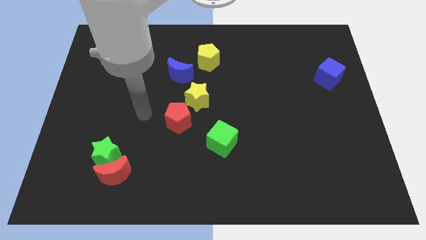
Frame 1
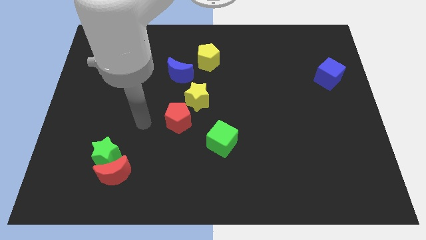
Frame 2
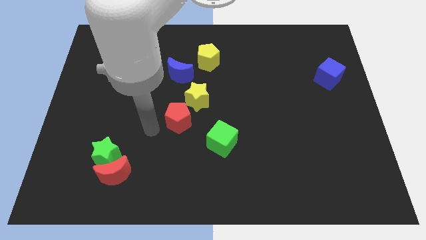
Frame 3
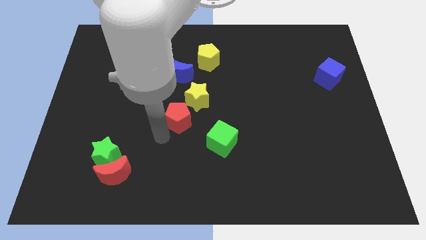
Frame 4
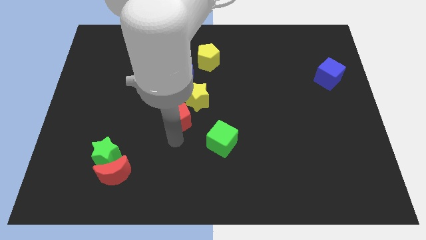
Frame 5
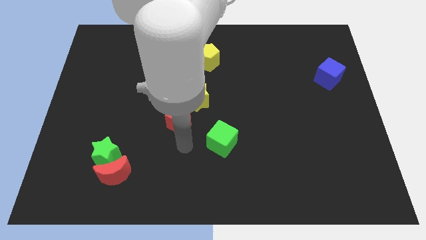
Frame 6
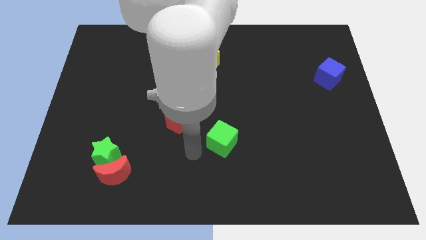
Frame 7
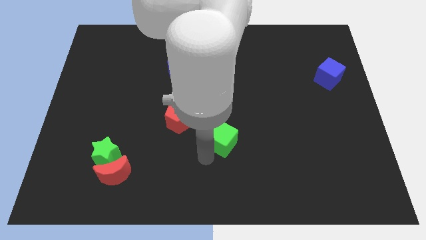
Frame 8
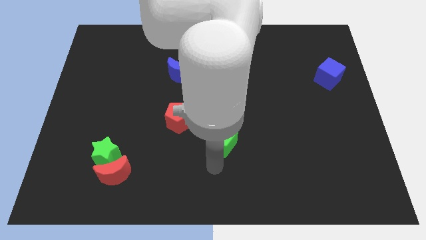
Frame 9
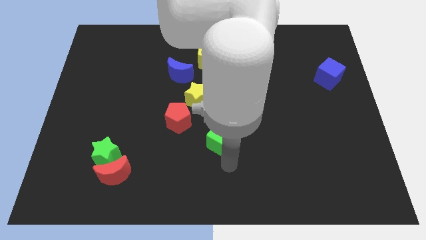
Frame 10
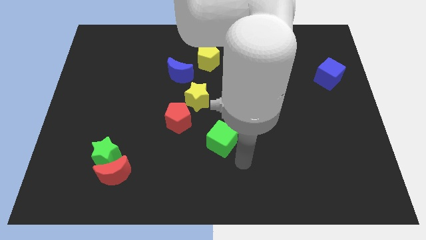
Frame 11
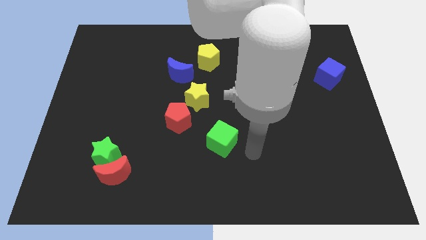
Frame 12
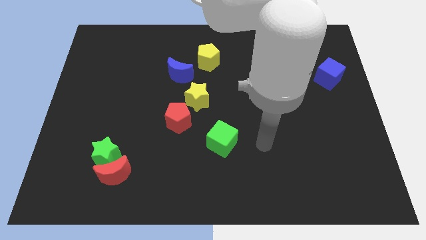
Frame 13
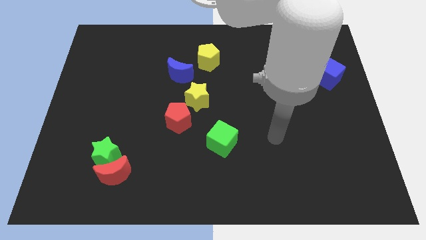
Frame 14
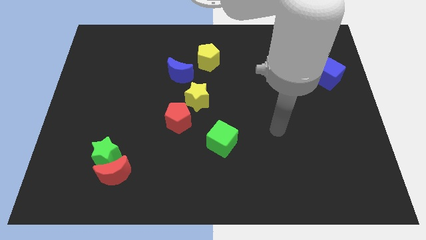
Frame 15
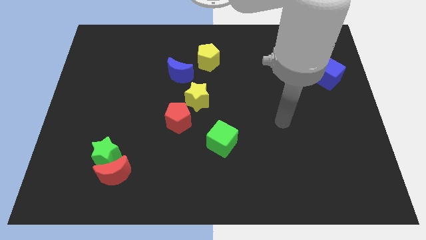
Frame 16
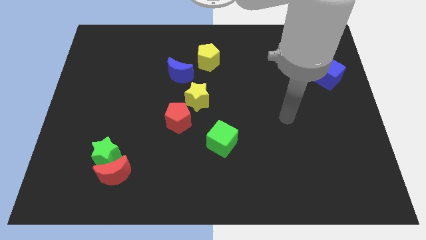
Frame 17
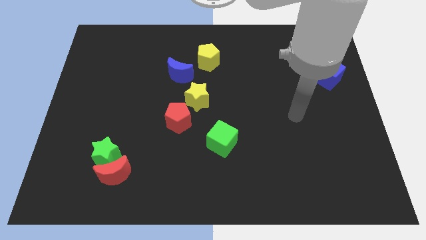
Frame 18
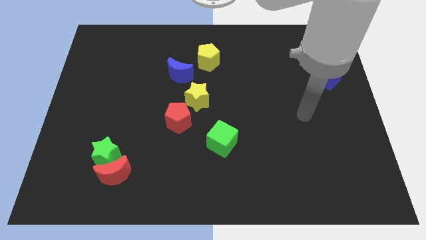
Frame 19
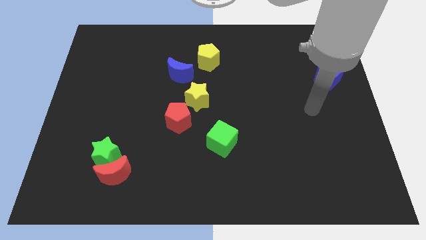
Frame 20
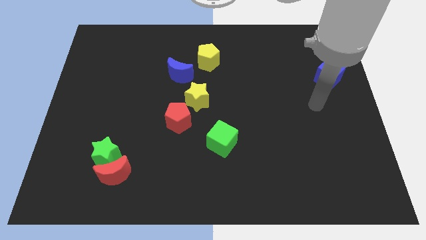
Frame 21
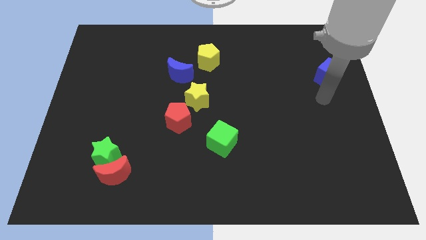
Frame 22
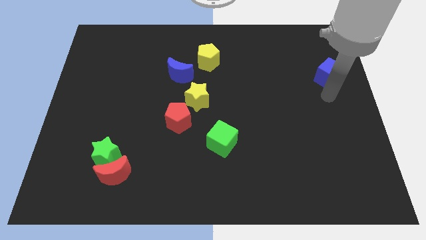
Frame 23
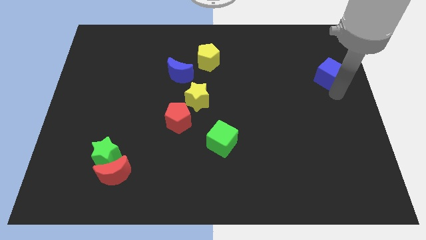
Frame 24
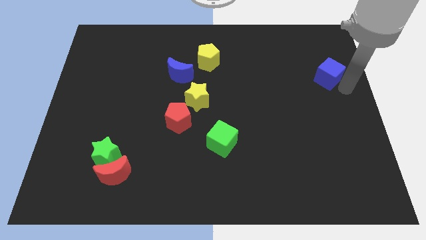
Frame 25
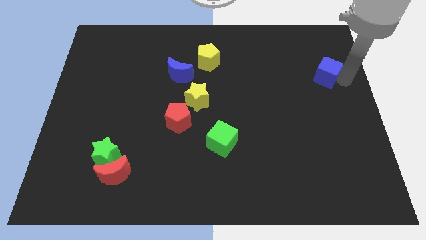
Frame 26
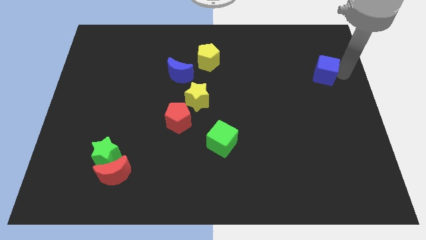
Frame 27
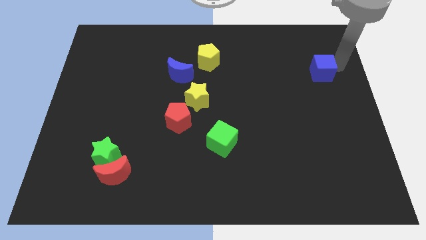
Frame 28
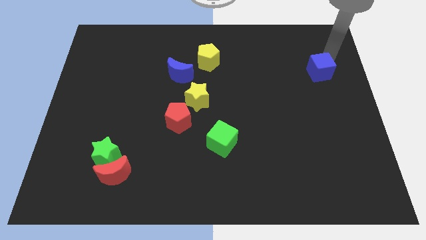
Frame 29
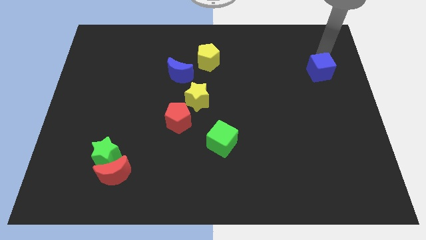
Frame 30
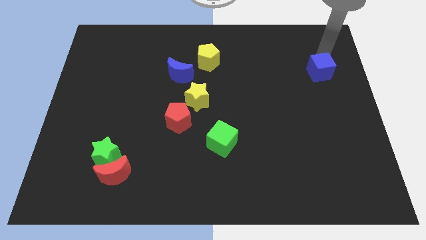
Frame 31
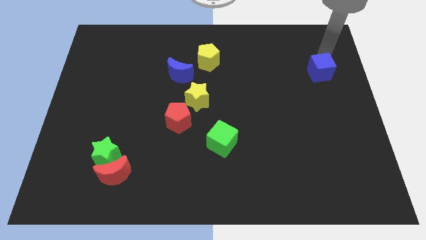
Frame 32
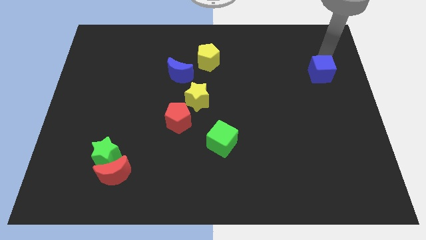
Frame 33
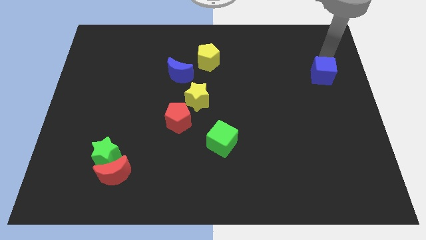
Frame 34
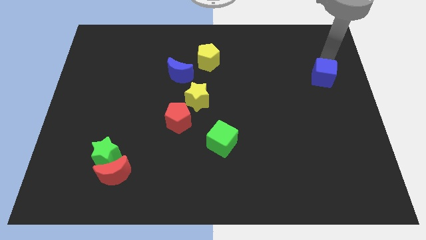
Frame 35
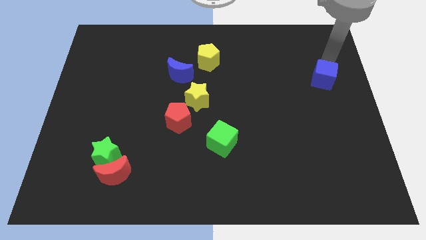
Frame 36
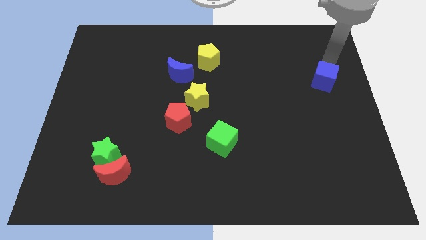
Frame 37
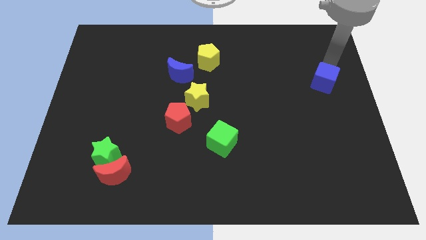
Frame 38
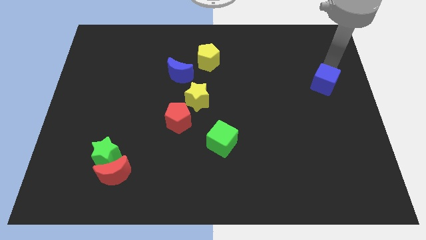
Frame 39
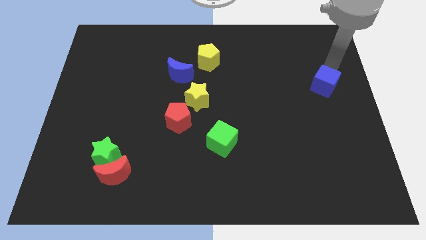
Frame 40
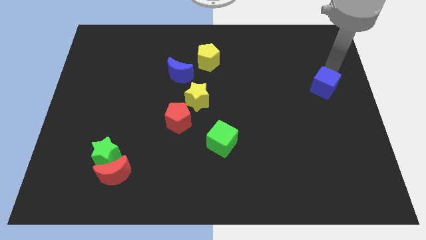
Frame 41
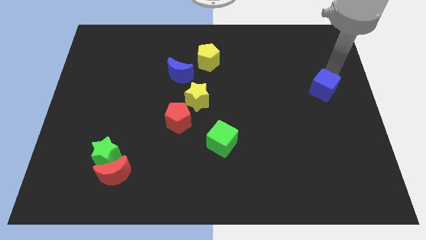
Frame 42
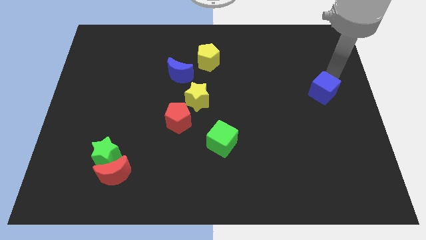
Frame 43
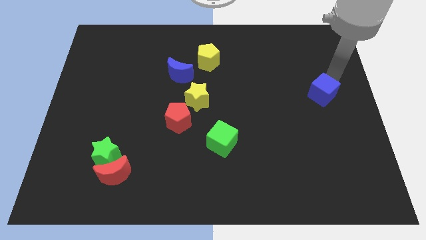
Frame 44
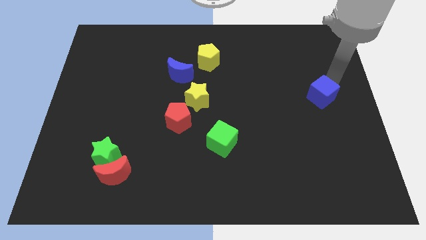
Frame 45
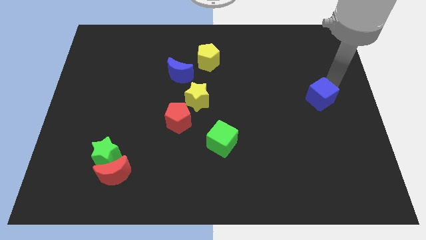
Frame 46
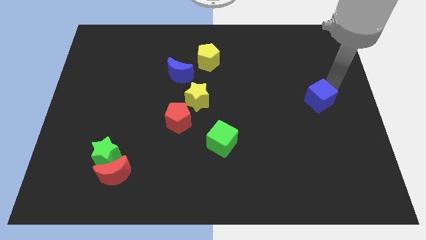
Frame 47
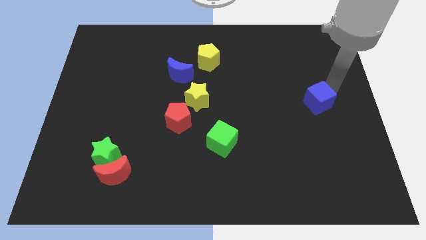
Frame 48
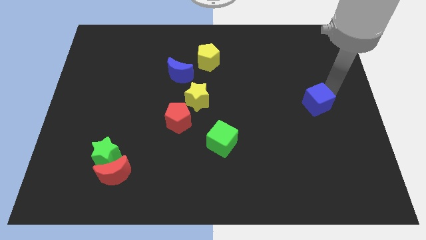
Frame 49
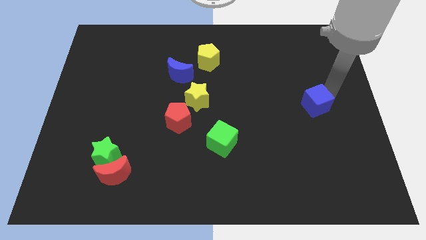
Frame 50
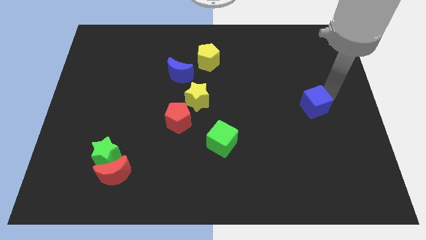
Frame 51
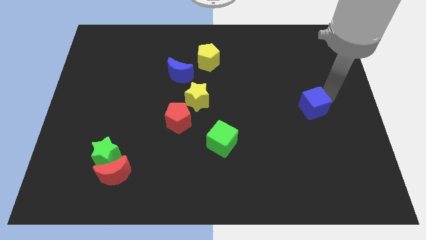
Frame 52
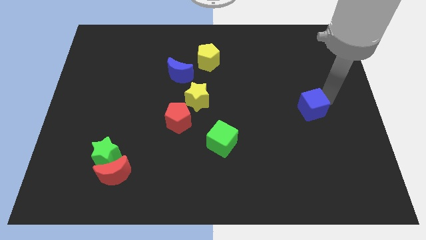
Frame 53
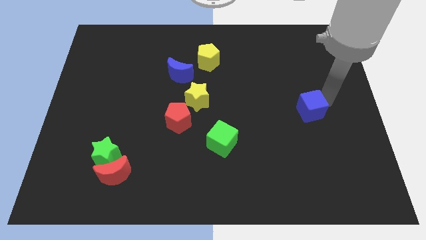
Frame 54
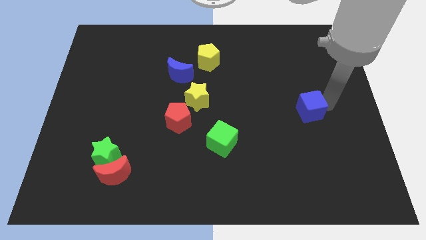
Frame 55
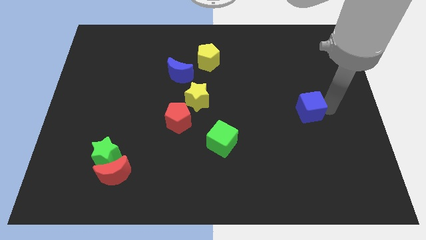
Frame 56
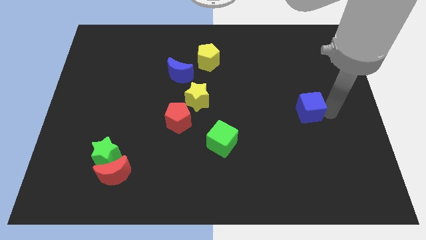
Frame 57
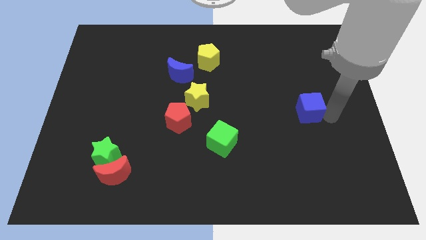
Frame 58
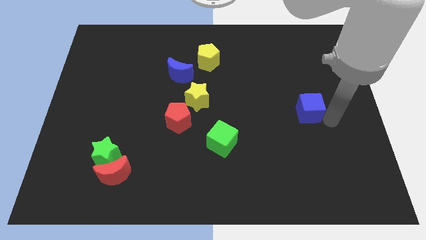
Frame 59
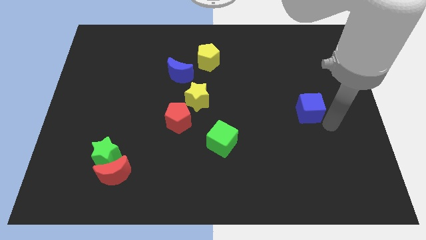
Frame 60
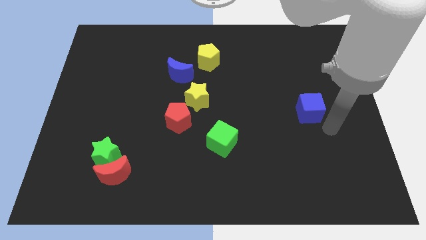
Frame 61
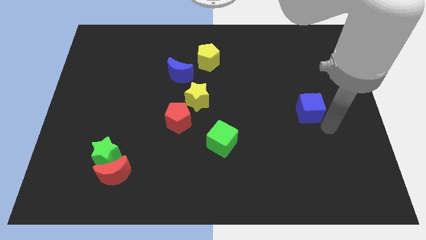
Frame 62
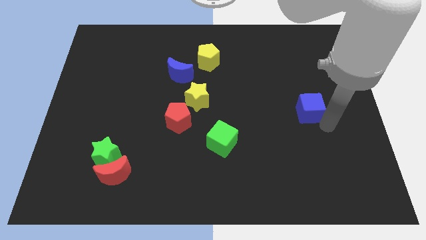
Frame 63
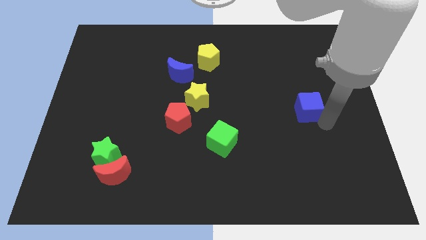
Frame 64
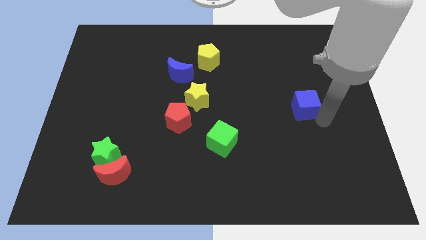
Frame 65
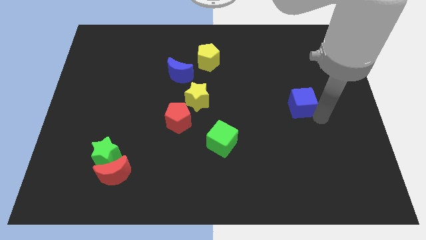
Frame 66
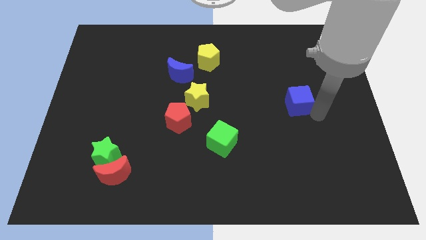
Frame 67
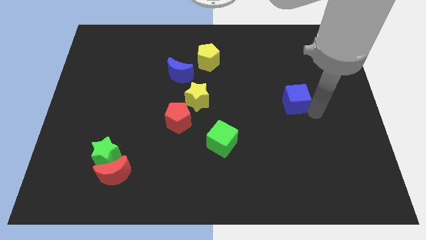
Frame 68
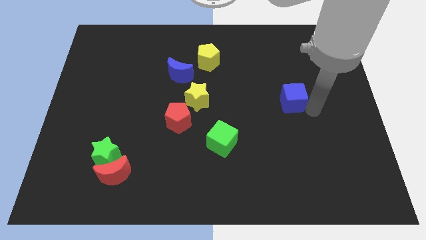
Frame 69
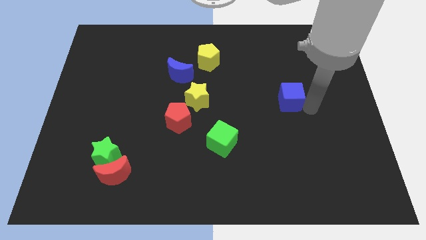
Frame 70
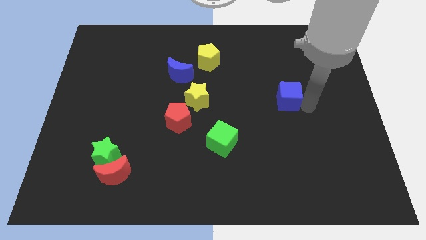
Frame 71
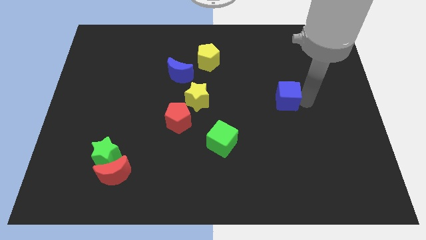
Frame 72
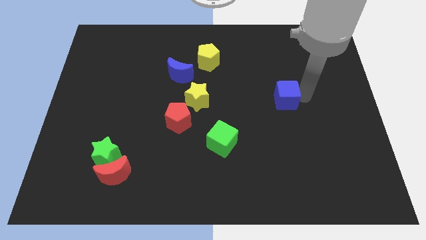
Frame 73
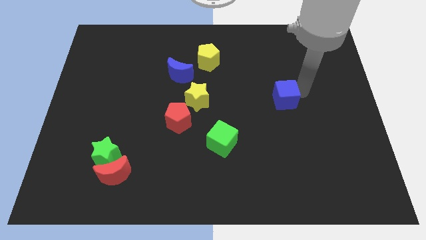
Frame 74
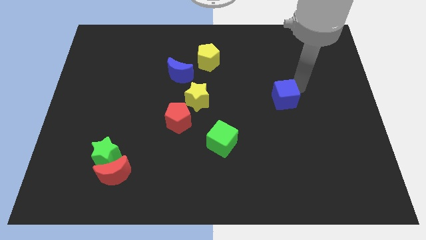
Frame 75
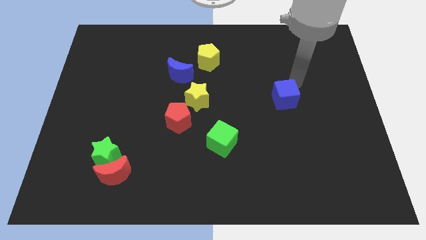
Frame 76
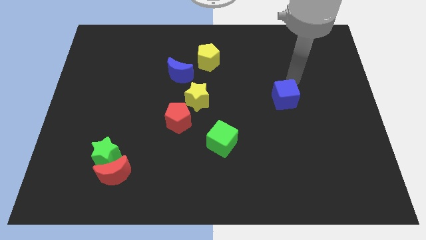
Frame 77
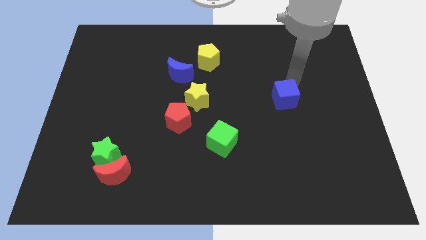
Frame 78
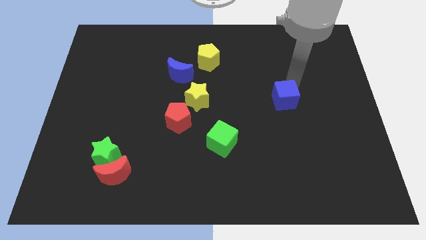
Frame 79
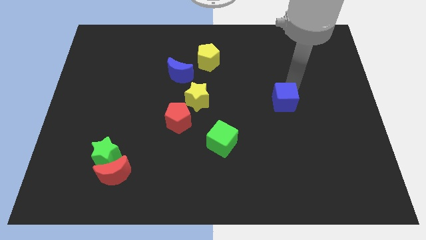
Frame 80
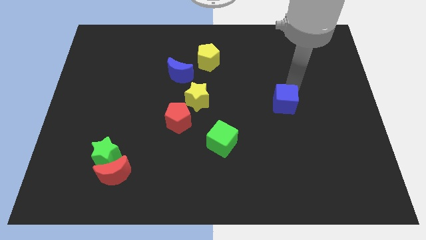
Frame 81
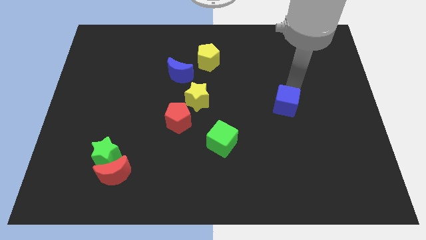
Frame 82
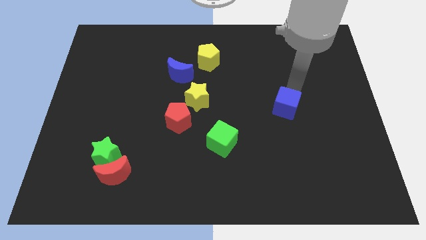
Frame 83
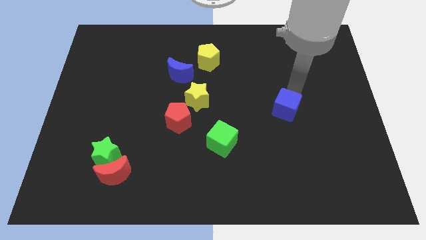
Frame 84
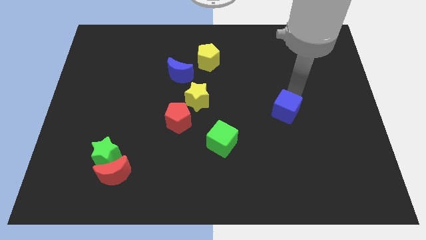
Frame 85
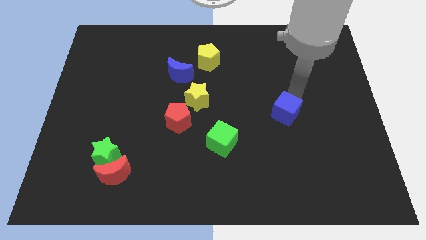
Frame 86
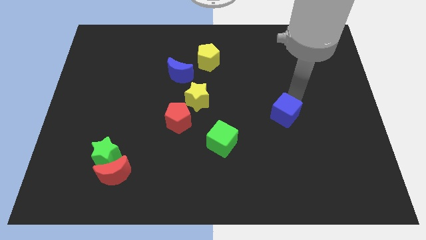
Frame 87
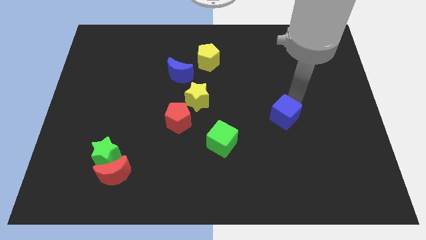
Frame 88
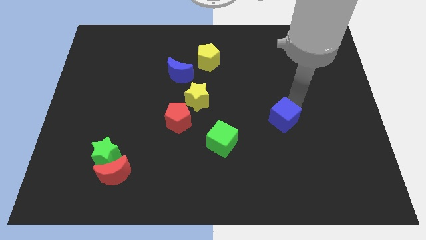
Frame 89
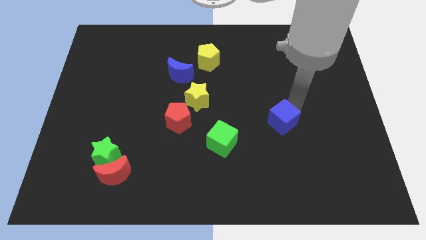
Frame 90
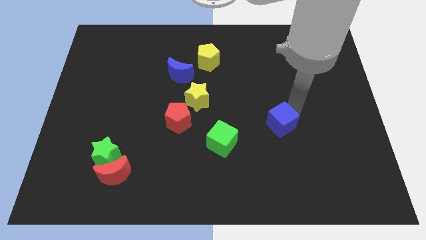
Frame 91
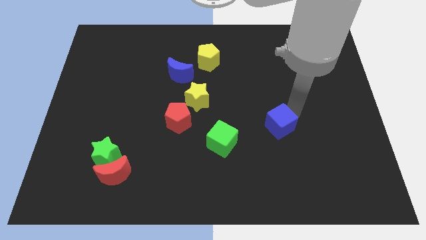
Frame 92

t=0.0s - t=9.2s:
slide the blue cube downwards and to the left
